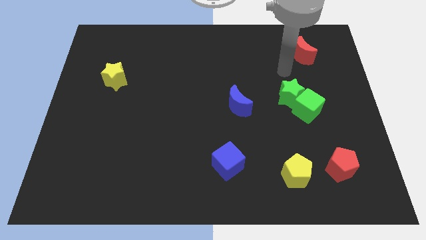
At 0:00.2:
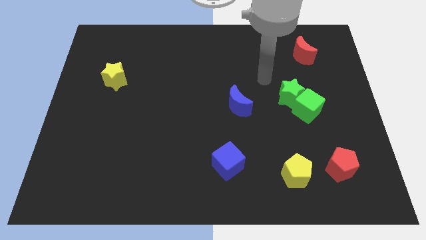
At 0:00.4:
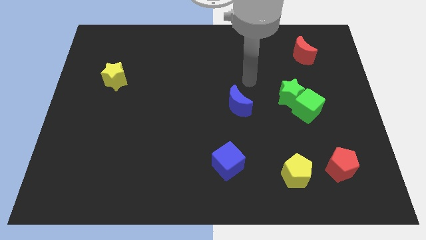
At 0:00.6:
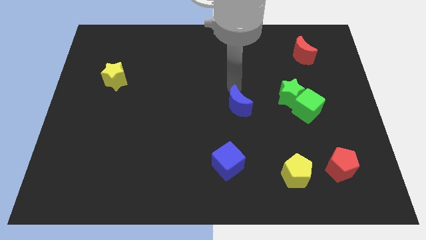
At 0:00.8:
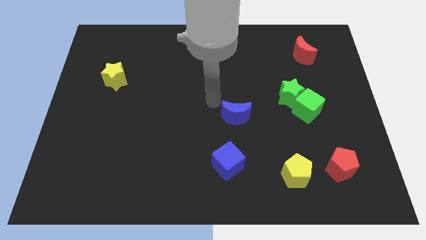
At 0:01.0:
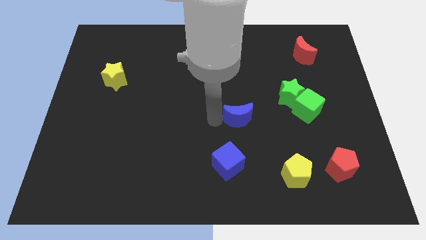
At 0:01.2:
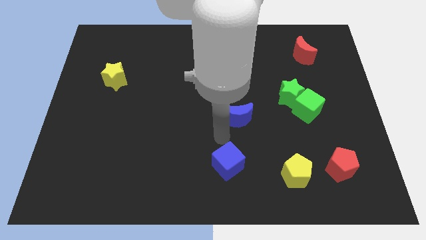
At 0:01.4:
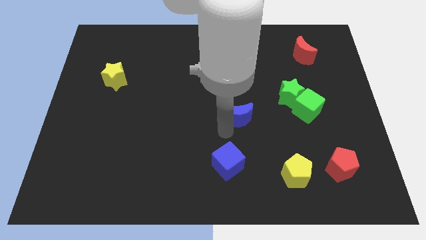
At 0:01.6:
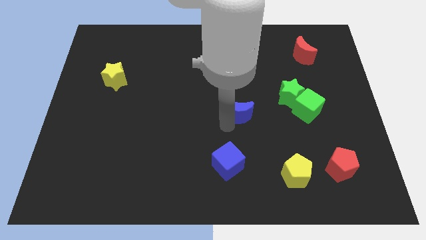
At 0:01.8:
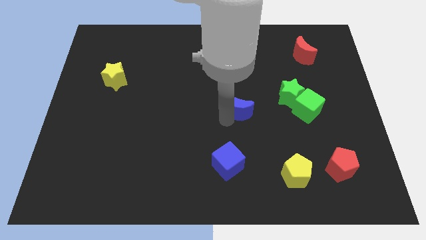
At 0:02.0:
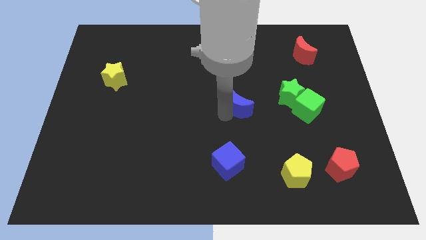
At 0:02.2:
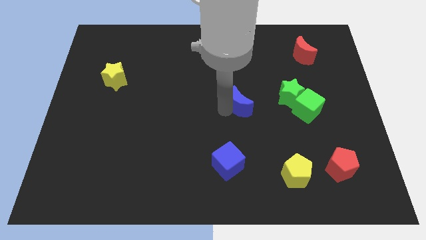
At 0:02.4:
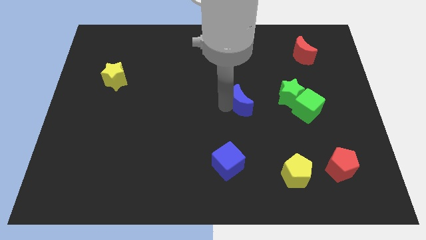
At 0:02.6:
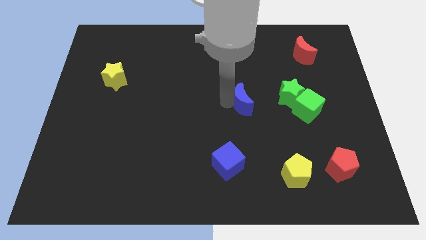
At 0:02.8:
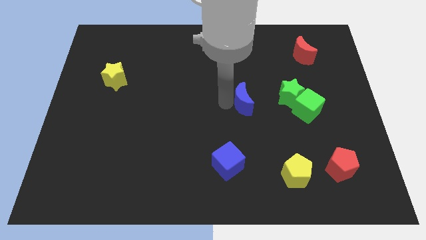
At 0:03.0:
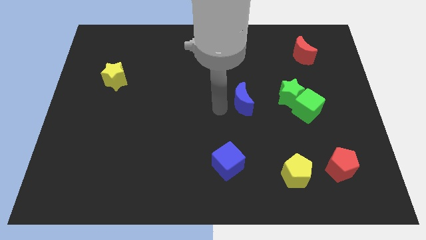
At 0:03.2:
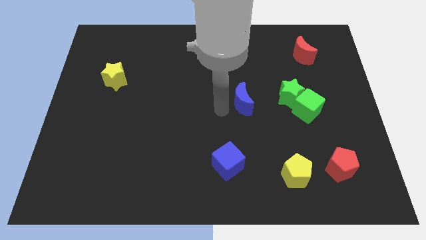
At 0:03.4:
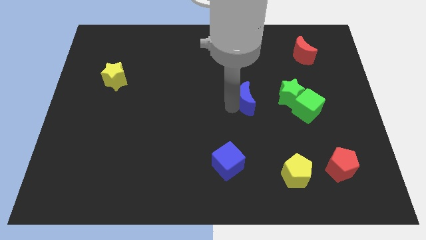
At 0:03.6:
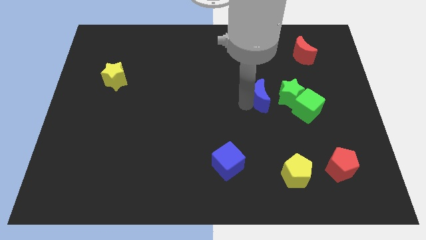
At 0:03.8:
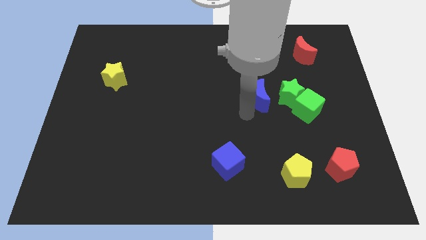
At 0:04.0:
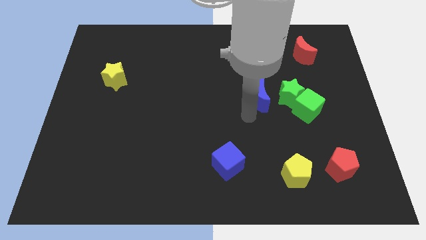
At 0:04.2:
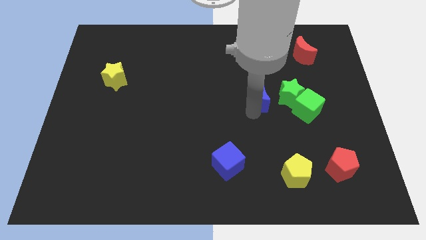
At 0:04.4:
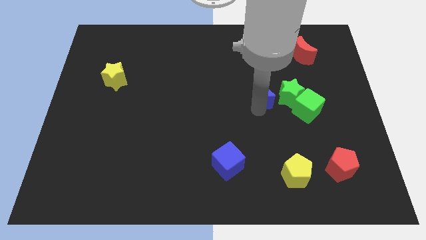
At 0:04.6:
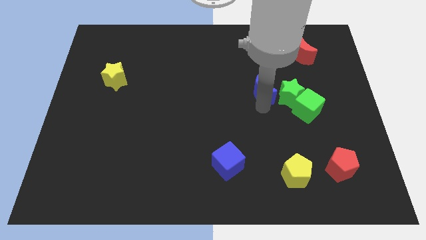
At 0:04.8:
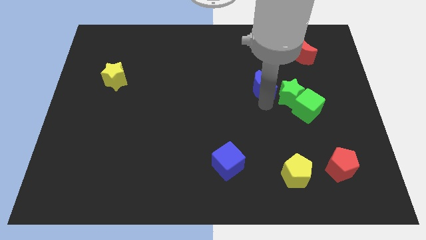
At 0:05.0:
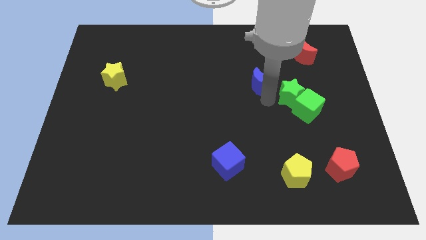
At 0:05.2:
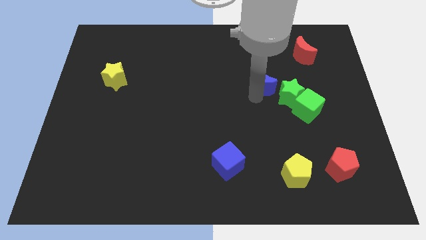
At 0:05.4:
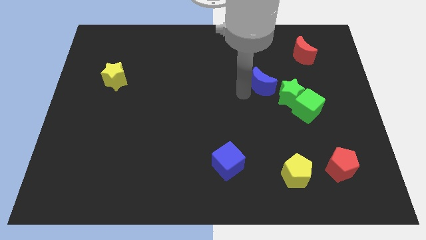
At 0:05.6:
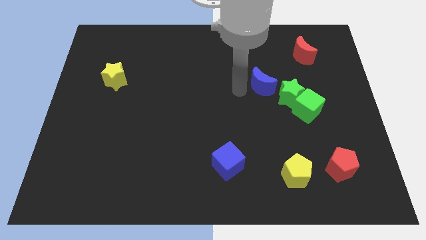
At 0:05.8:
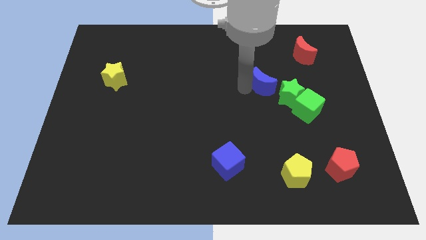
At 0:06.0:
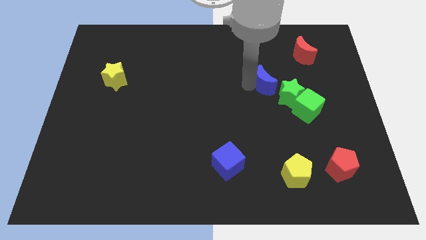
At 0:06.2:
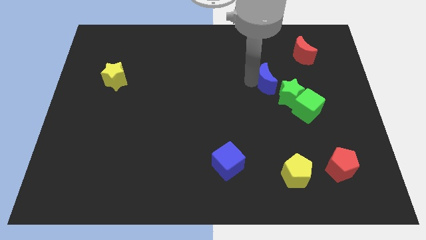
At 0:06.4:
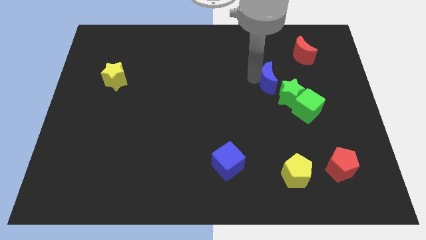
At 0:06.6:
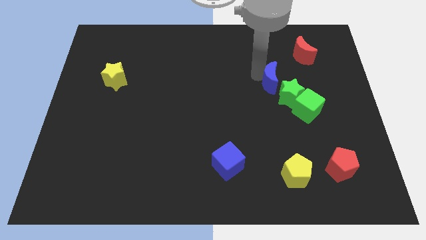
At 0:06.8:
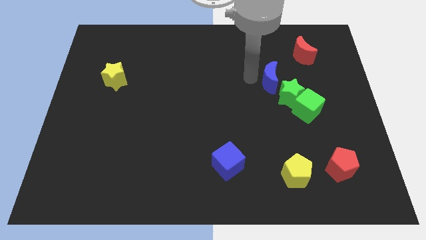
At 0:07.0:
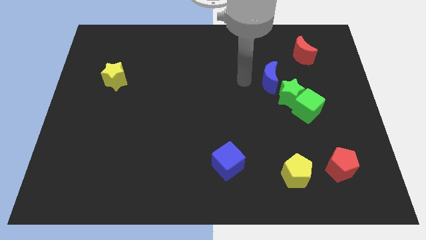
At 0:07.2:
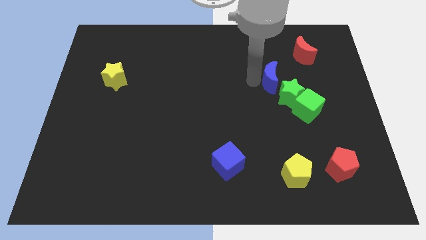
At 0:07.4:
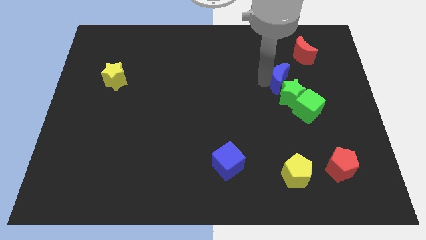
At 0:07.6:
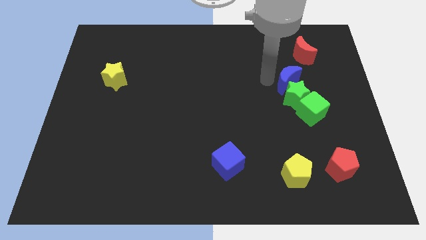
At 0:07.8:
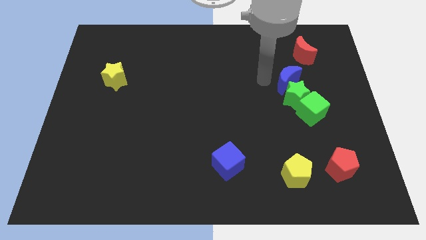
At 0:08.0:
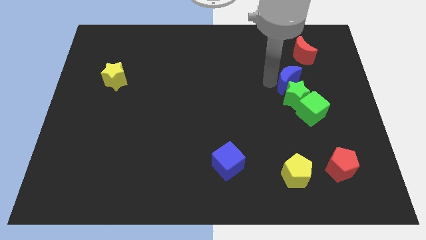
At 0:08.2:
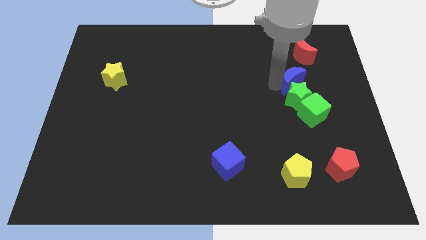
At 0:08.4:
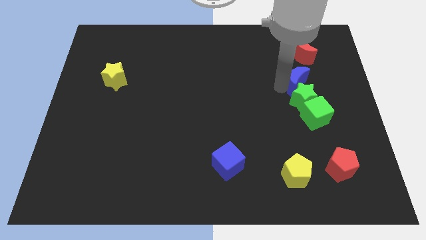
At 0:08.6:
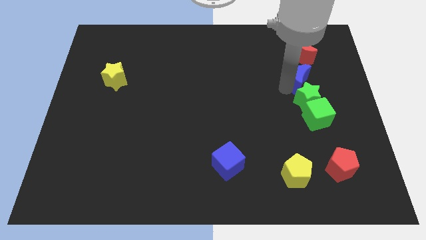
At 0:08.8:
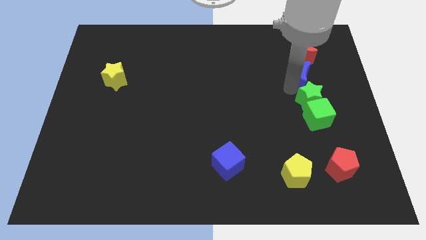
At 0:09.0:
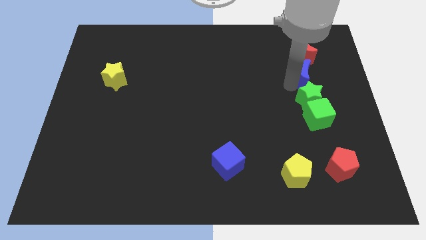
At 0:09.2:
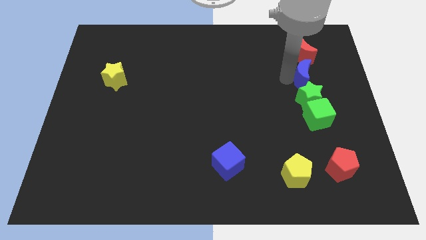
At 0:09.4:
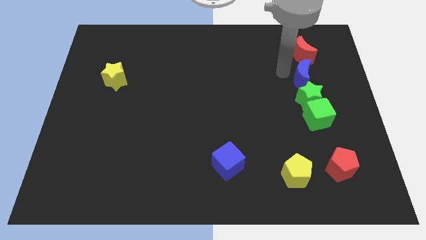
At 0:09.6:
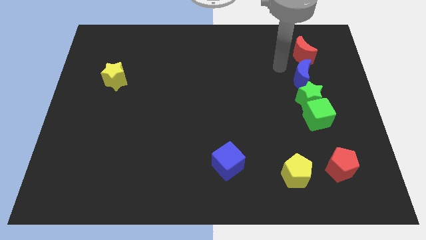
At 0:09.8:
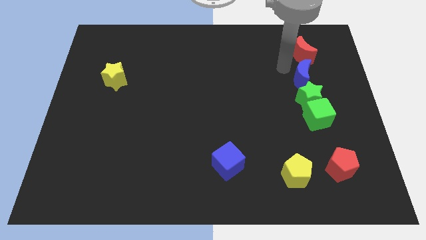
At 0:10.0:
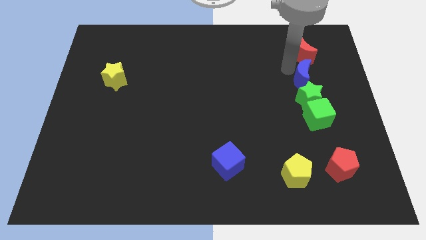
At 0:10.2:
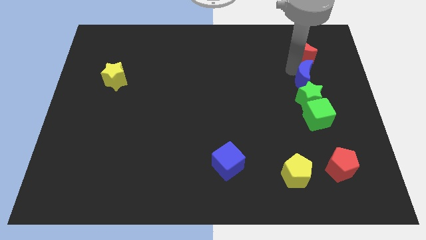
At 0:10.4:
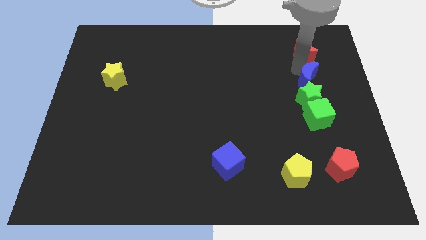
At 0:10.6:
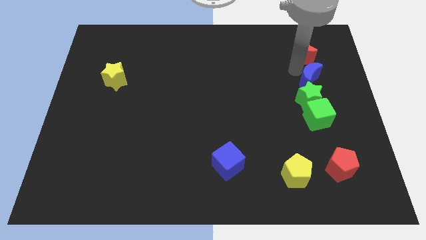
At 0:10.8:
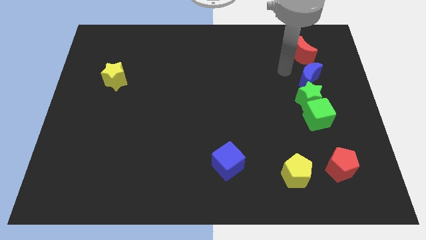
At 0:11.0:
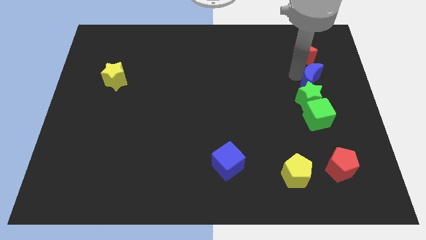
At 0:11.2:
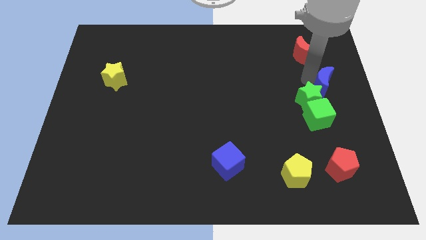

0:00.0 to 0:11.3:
put the blue moon to the right side

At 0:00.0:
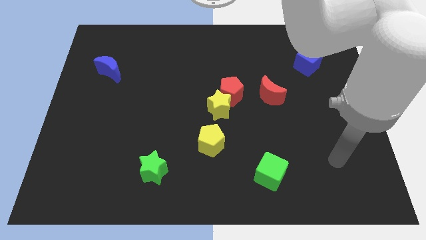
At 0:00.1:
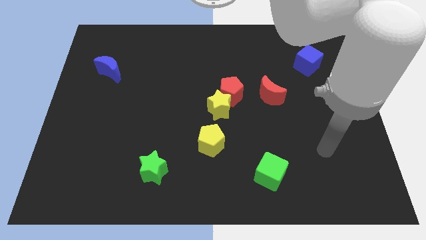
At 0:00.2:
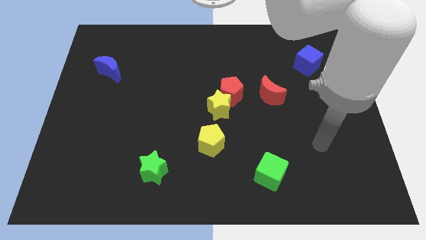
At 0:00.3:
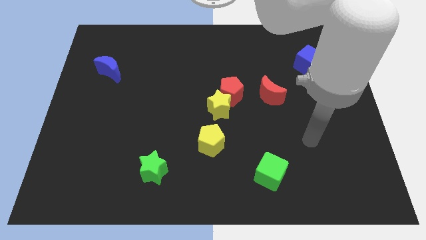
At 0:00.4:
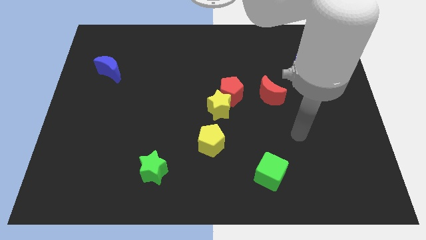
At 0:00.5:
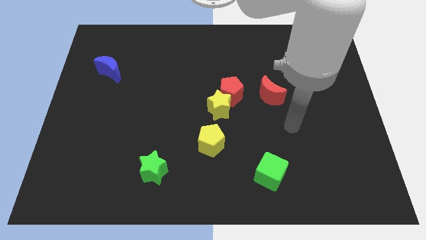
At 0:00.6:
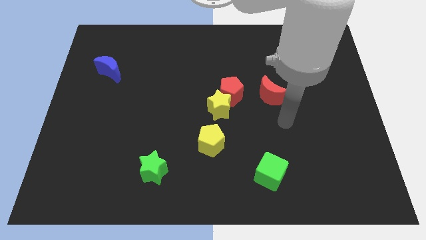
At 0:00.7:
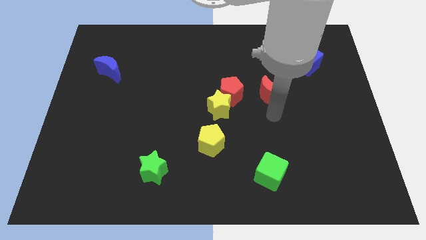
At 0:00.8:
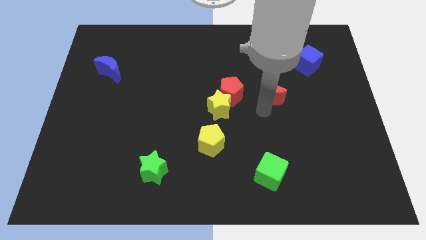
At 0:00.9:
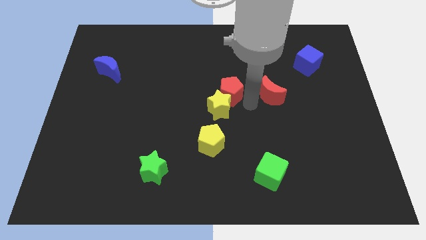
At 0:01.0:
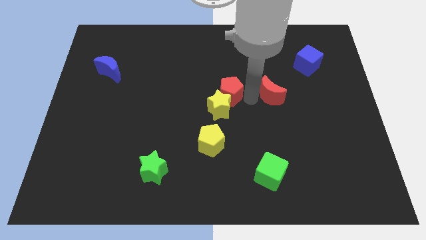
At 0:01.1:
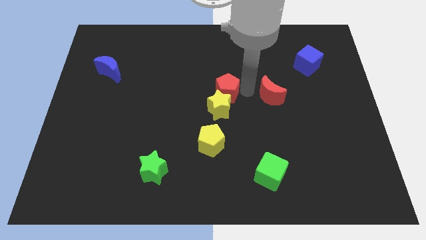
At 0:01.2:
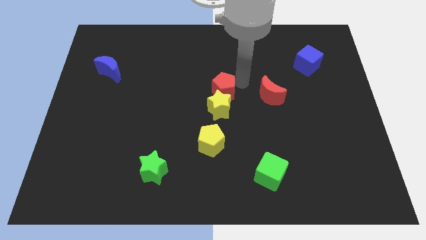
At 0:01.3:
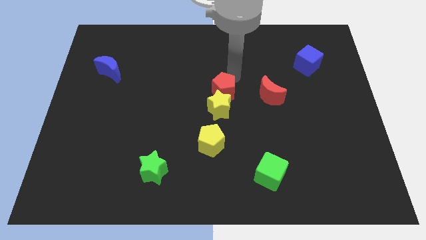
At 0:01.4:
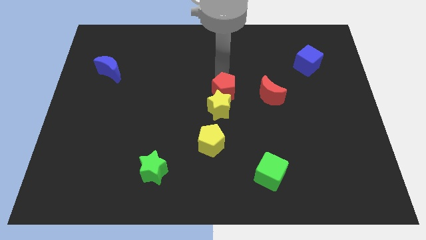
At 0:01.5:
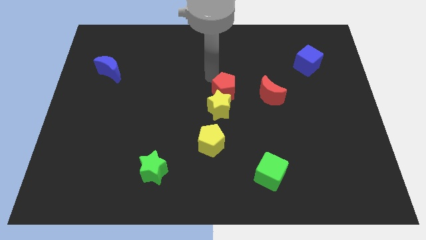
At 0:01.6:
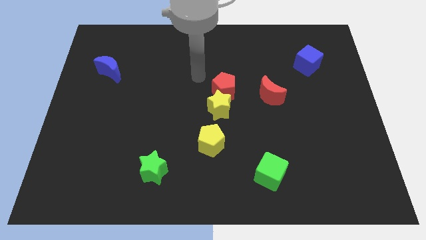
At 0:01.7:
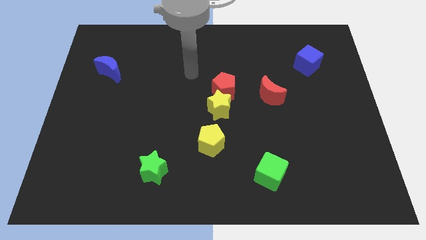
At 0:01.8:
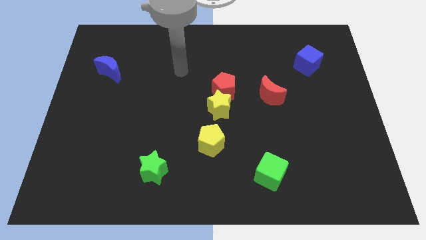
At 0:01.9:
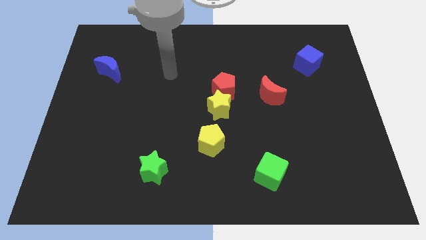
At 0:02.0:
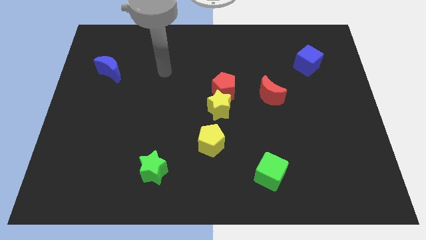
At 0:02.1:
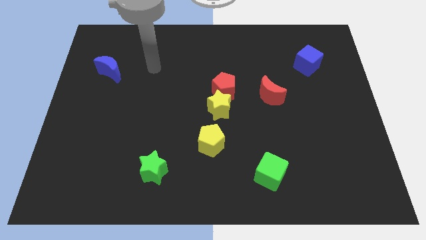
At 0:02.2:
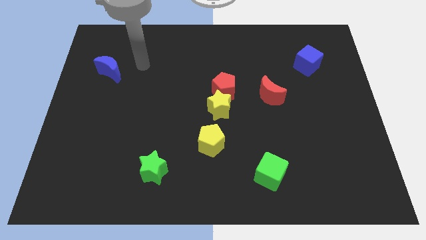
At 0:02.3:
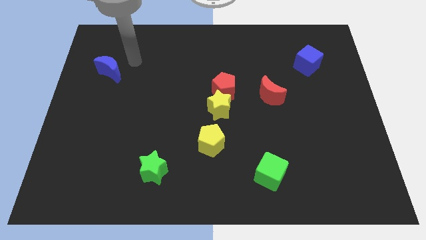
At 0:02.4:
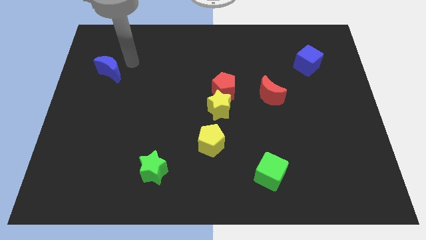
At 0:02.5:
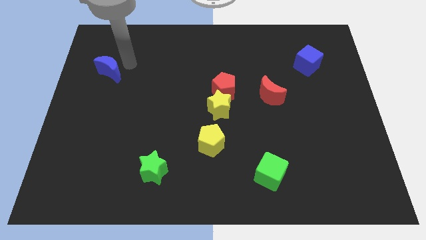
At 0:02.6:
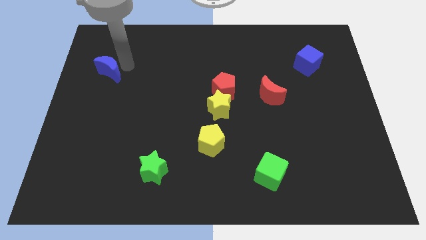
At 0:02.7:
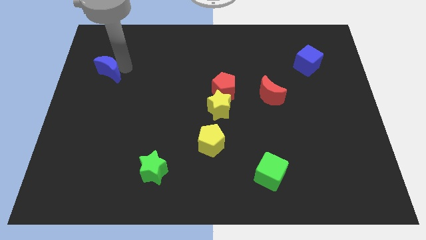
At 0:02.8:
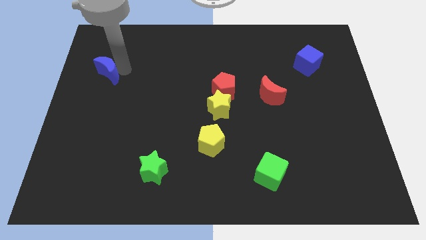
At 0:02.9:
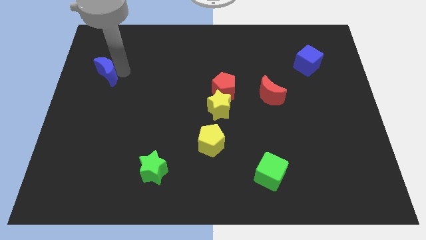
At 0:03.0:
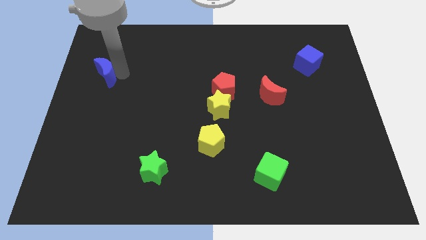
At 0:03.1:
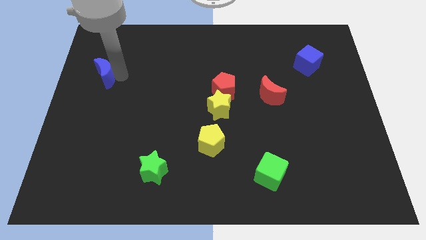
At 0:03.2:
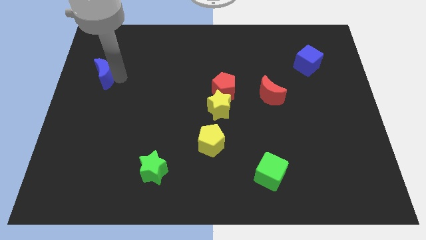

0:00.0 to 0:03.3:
move the blue moon to the center left
